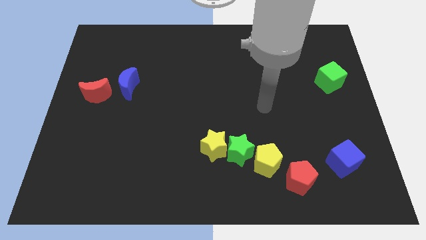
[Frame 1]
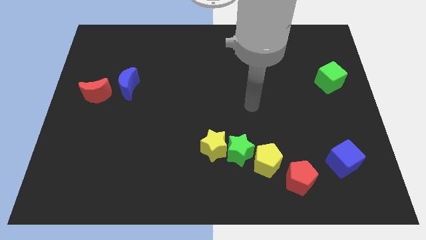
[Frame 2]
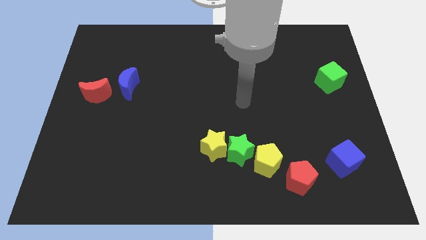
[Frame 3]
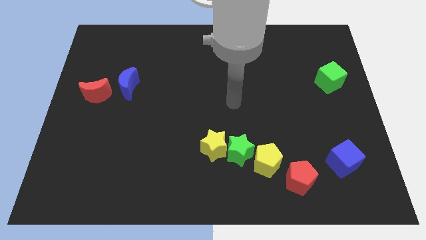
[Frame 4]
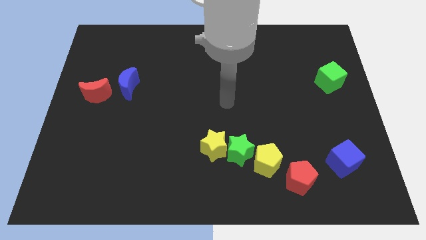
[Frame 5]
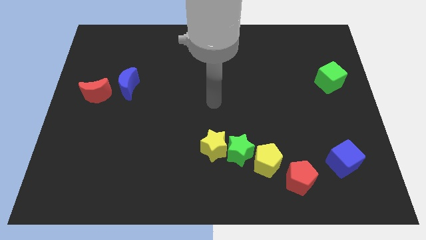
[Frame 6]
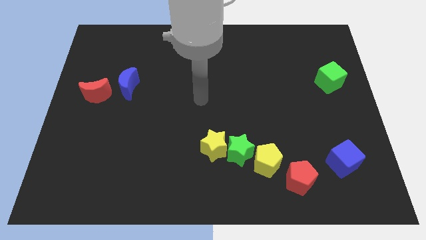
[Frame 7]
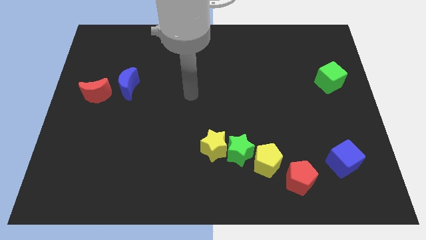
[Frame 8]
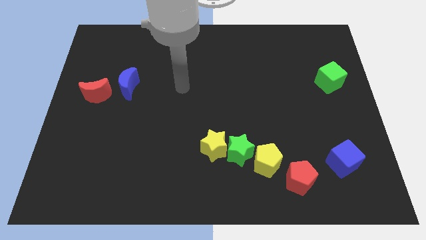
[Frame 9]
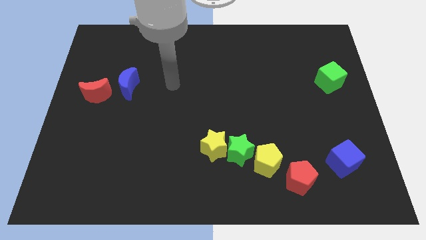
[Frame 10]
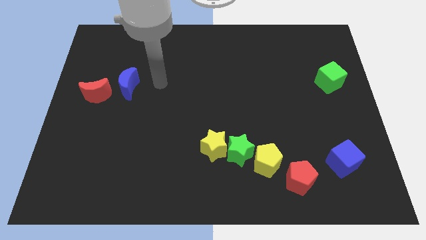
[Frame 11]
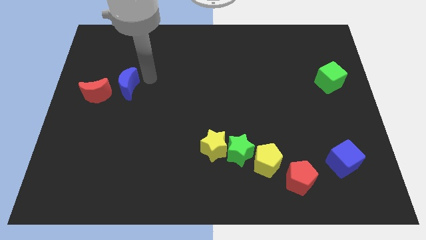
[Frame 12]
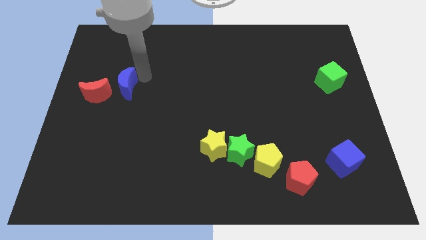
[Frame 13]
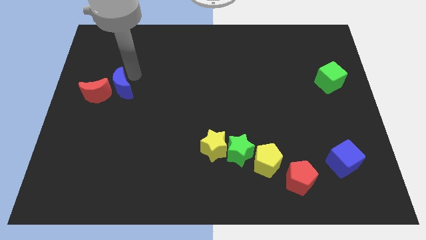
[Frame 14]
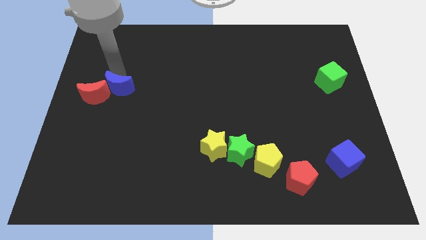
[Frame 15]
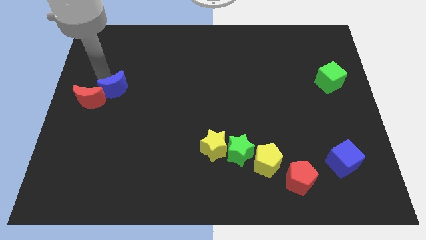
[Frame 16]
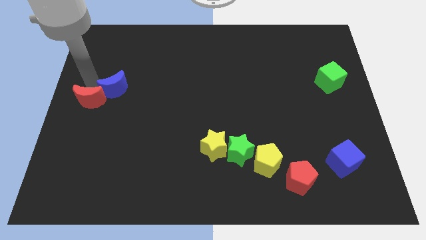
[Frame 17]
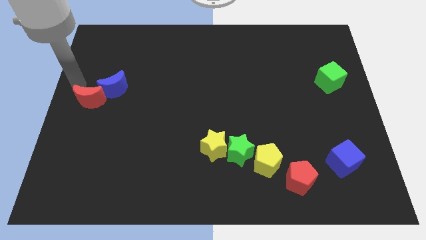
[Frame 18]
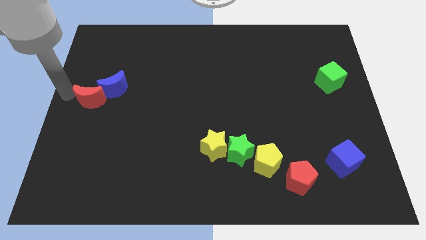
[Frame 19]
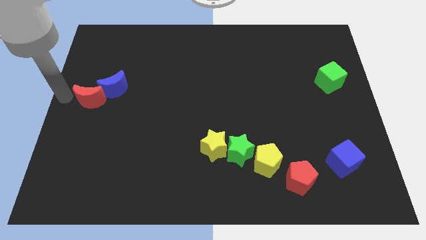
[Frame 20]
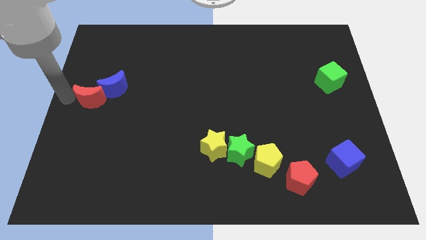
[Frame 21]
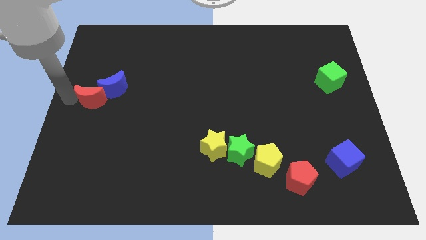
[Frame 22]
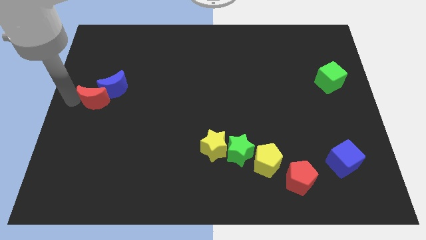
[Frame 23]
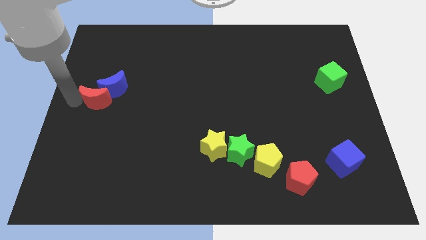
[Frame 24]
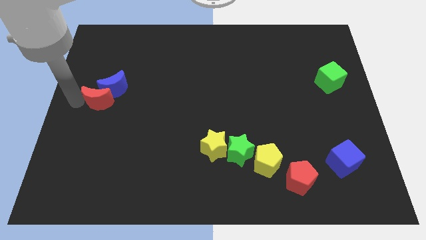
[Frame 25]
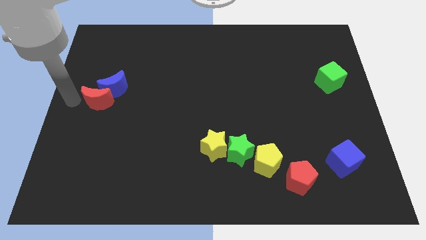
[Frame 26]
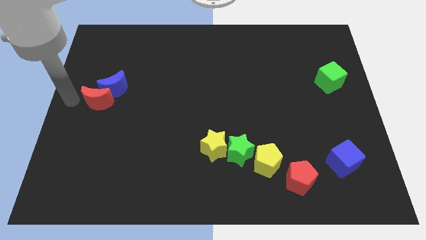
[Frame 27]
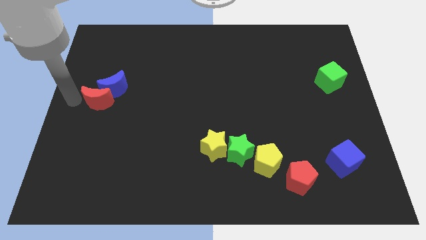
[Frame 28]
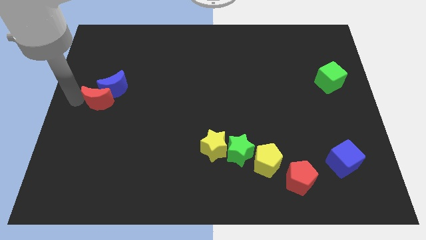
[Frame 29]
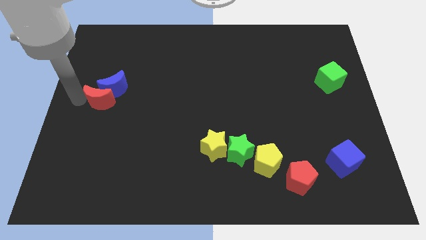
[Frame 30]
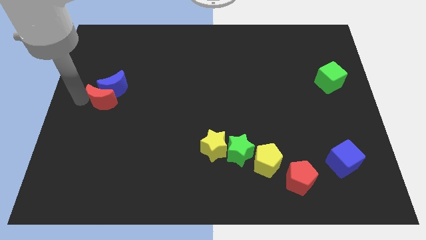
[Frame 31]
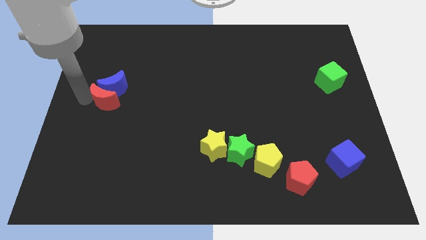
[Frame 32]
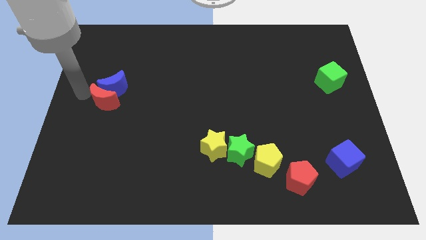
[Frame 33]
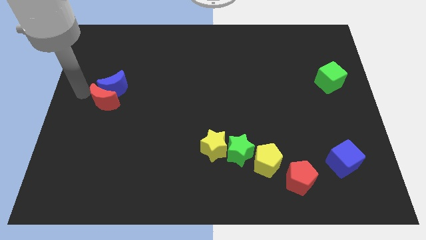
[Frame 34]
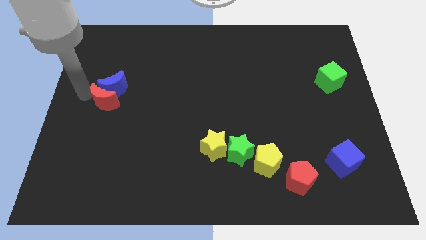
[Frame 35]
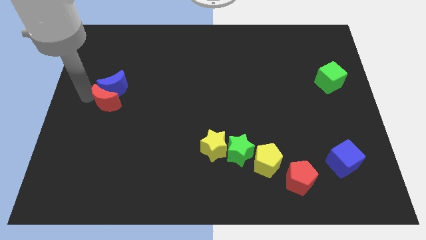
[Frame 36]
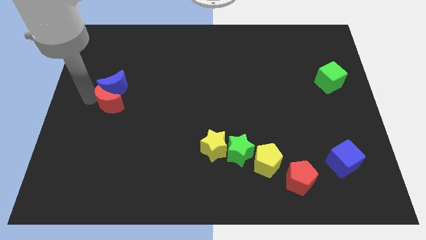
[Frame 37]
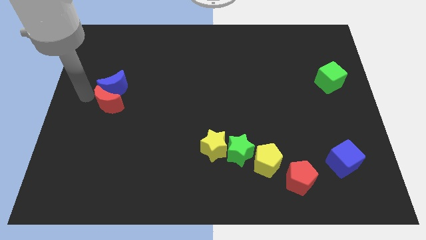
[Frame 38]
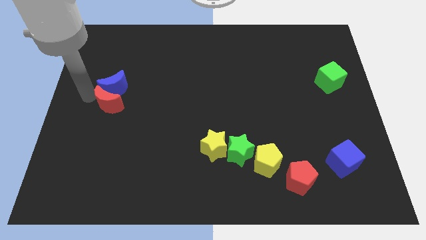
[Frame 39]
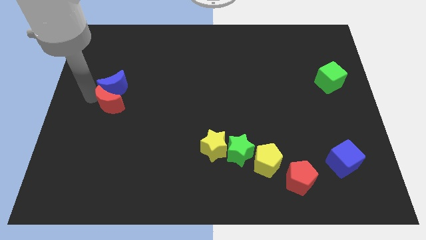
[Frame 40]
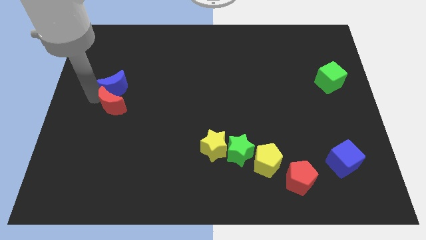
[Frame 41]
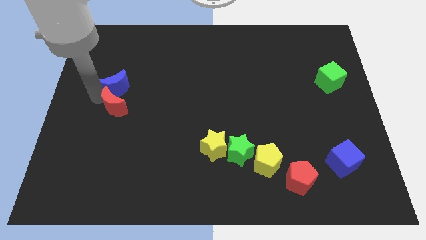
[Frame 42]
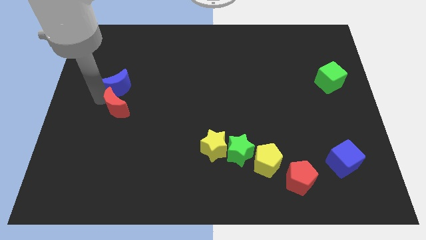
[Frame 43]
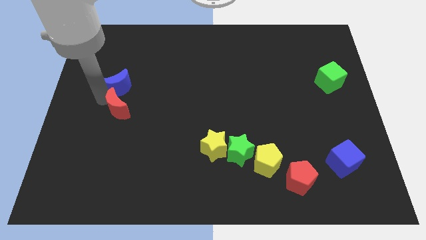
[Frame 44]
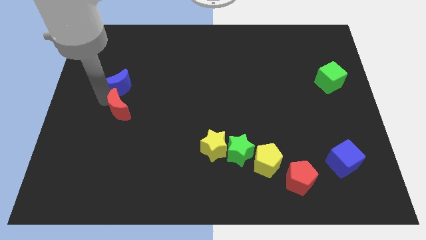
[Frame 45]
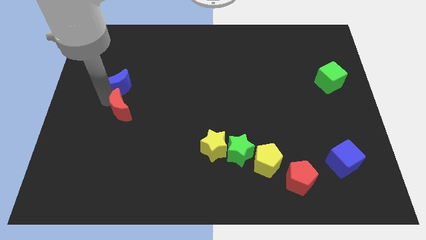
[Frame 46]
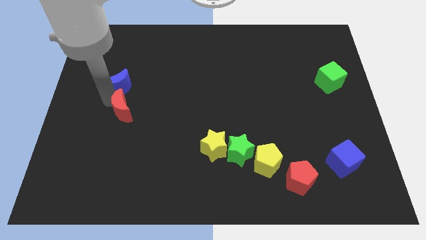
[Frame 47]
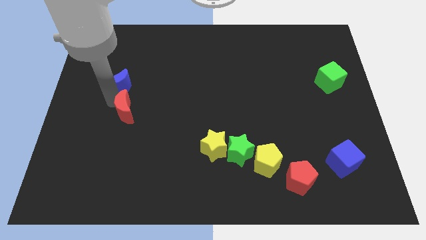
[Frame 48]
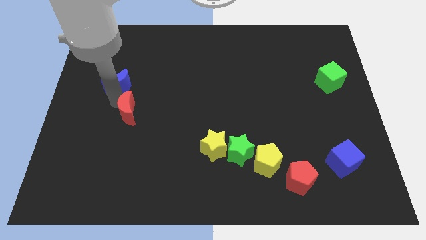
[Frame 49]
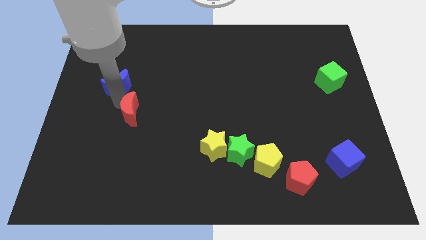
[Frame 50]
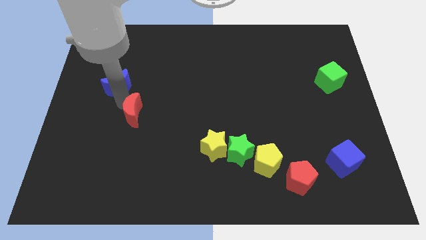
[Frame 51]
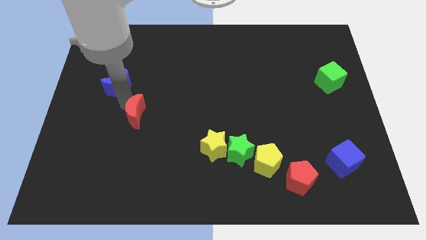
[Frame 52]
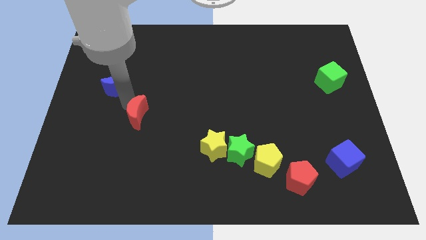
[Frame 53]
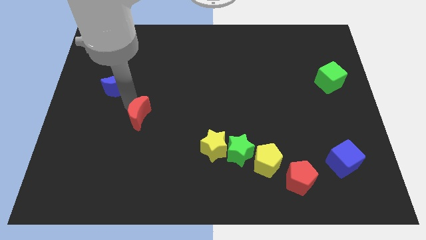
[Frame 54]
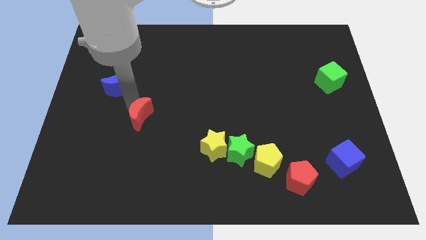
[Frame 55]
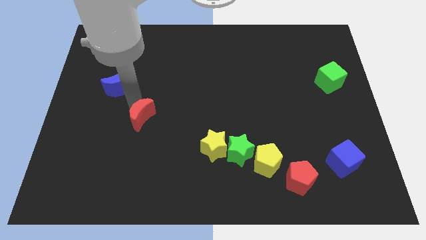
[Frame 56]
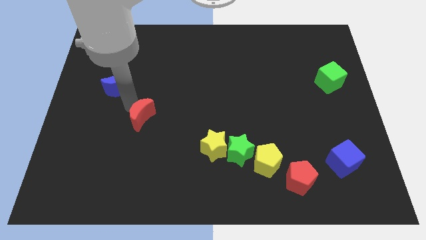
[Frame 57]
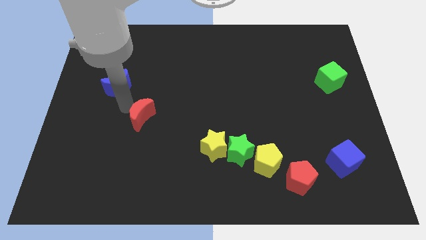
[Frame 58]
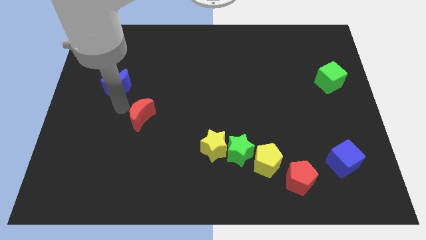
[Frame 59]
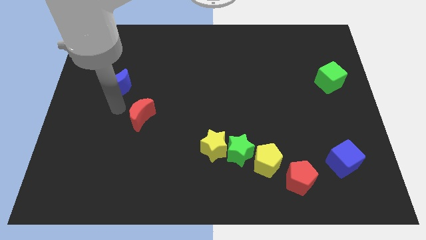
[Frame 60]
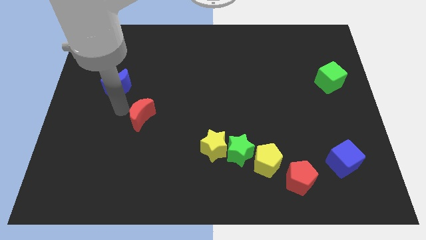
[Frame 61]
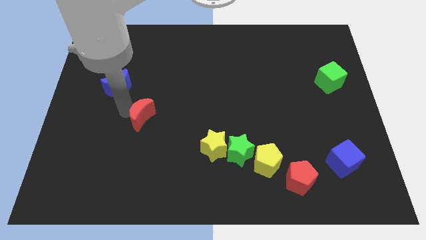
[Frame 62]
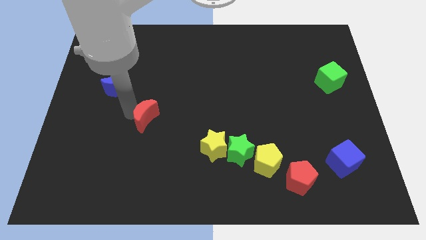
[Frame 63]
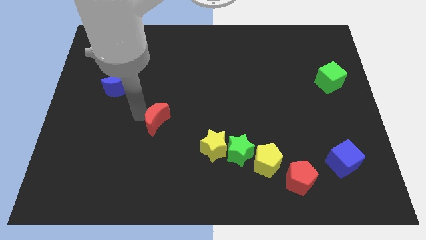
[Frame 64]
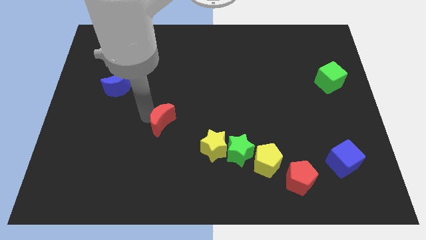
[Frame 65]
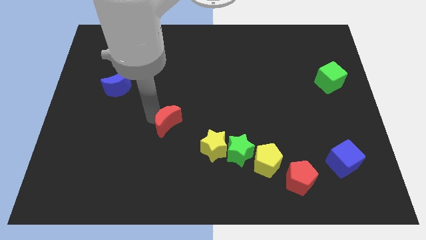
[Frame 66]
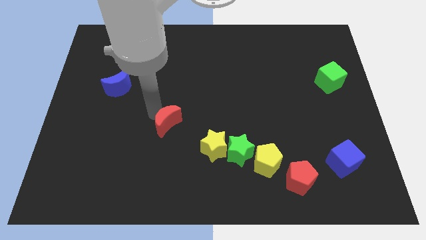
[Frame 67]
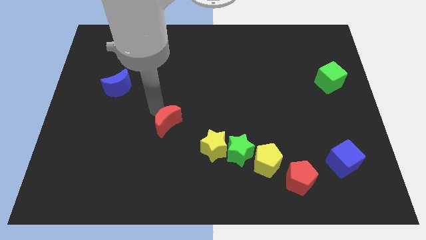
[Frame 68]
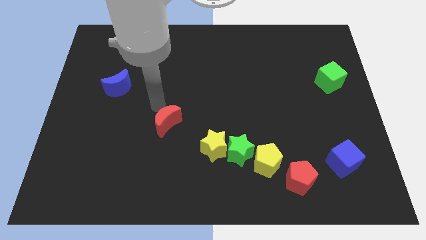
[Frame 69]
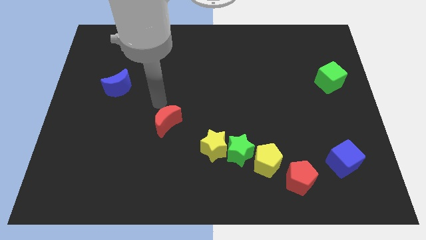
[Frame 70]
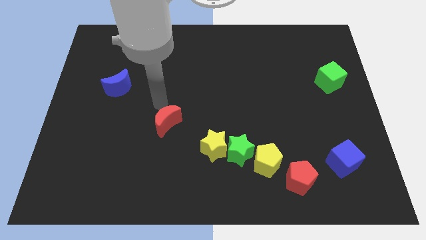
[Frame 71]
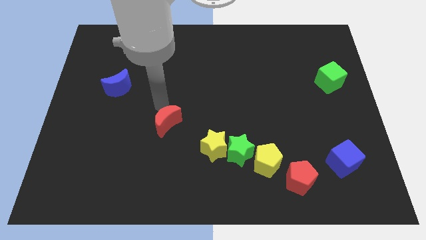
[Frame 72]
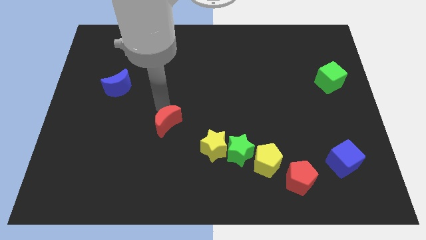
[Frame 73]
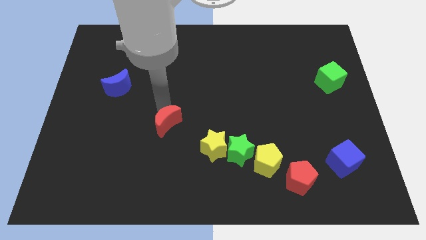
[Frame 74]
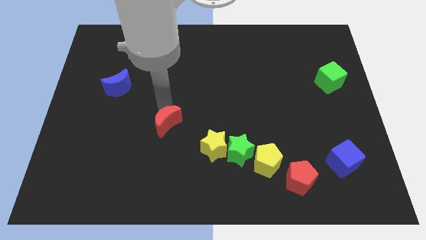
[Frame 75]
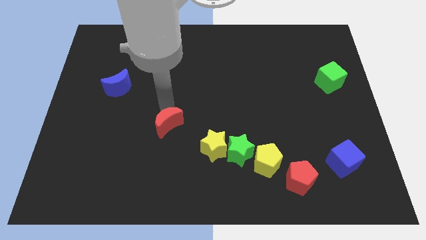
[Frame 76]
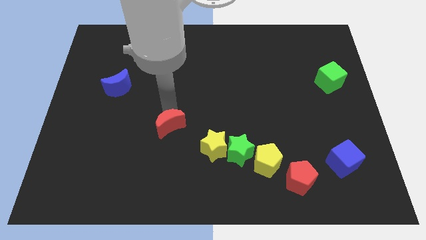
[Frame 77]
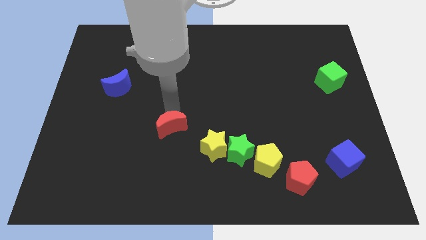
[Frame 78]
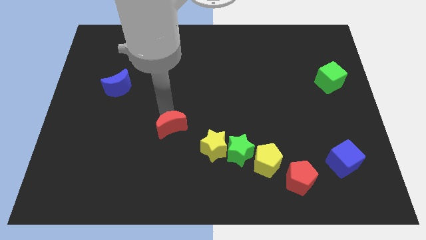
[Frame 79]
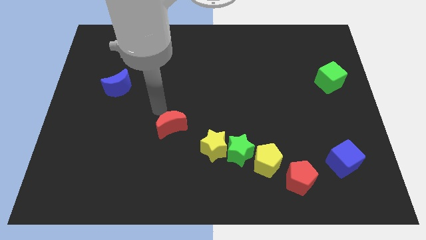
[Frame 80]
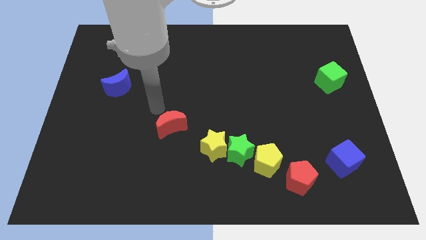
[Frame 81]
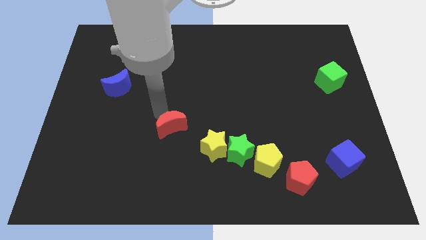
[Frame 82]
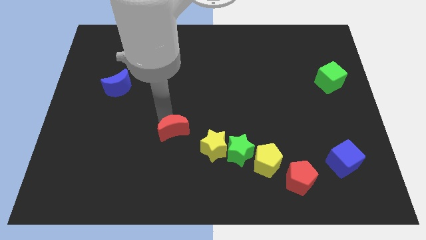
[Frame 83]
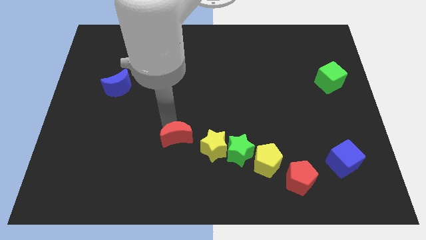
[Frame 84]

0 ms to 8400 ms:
slide the red moon to the left of the green star
